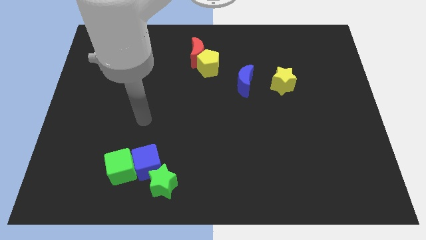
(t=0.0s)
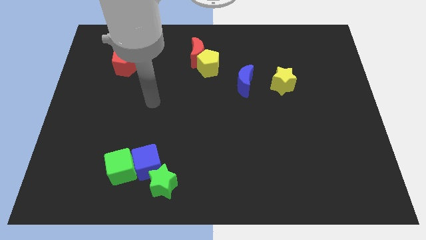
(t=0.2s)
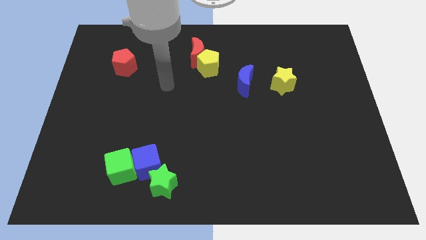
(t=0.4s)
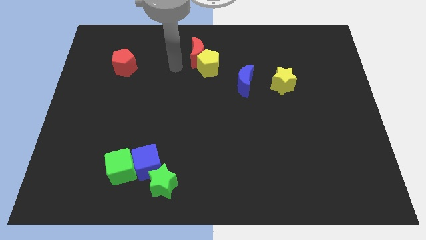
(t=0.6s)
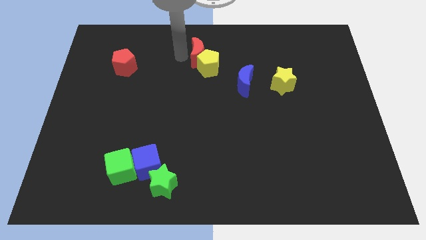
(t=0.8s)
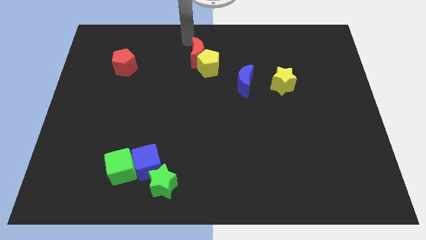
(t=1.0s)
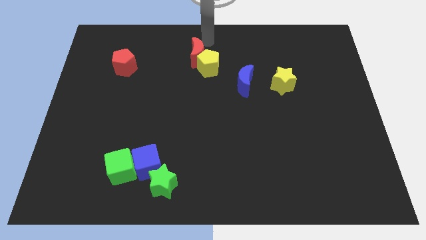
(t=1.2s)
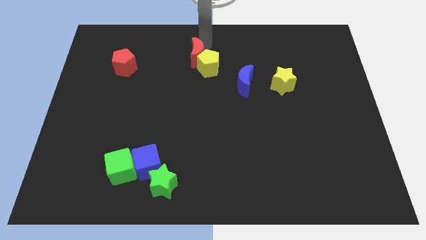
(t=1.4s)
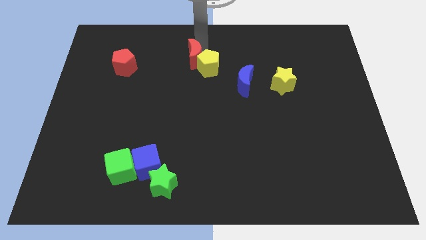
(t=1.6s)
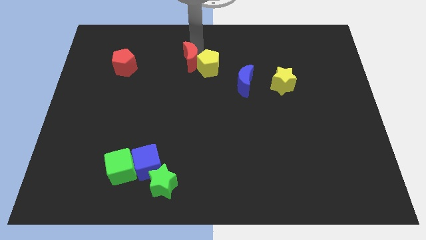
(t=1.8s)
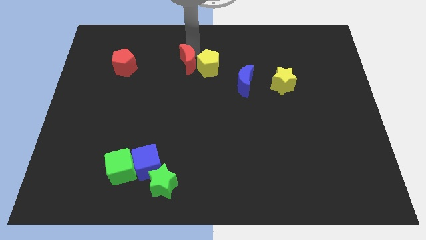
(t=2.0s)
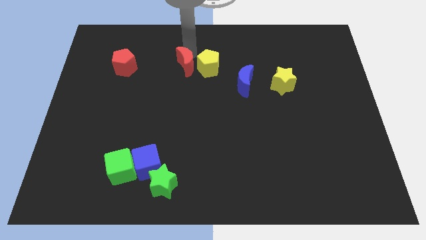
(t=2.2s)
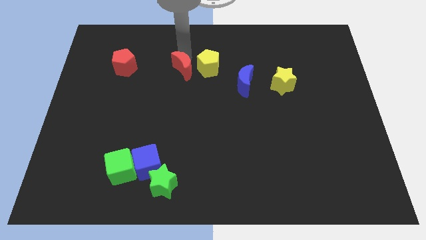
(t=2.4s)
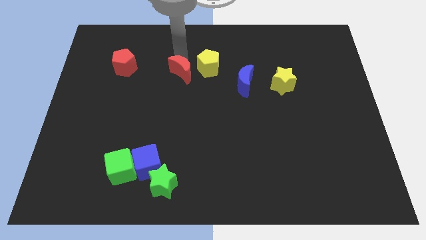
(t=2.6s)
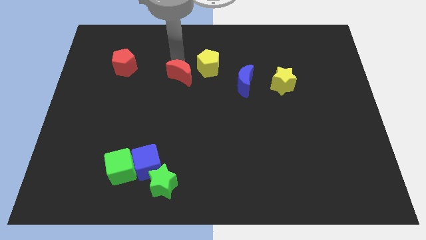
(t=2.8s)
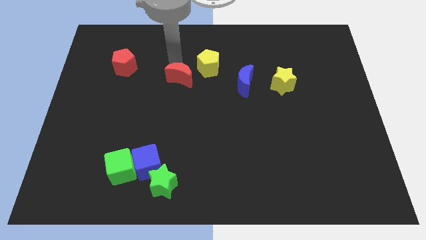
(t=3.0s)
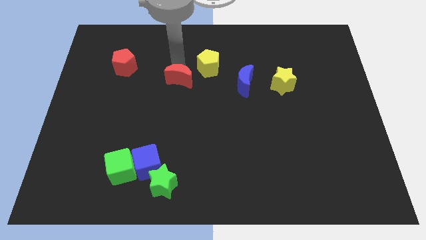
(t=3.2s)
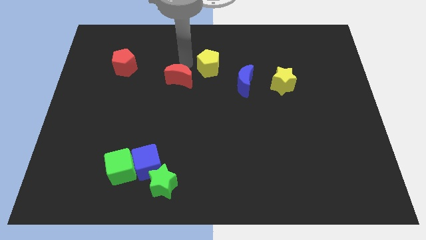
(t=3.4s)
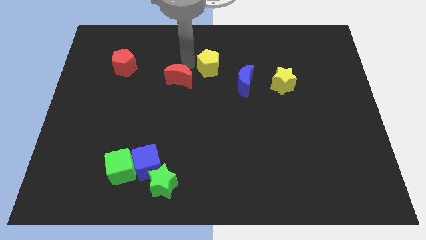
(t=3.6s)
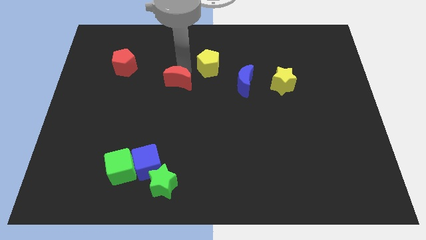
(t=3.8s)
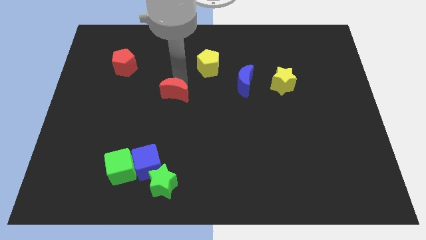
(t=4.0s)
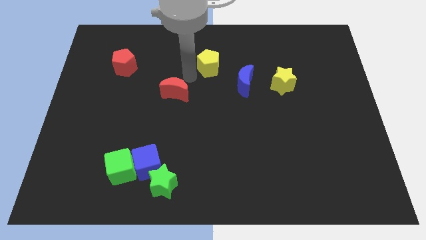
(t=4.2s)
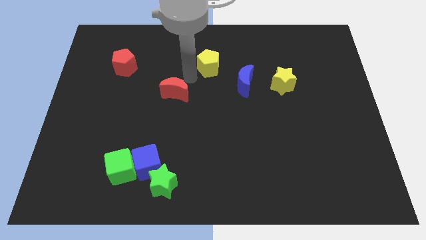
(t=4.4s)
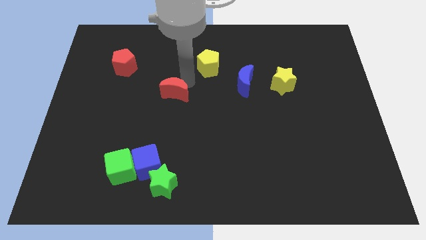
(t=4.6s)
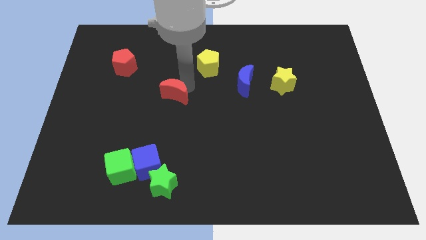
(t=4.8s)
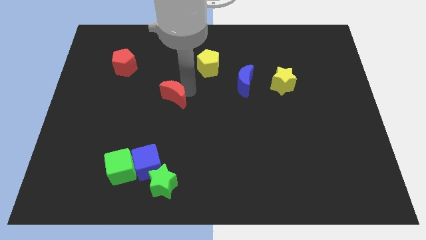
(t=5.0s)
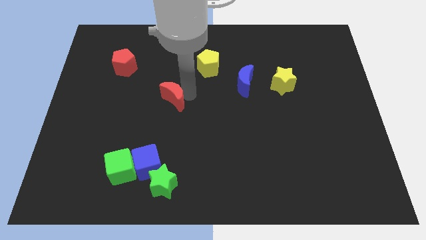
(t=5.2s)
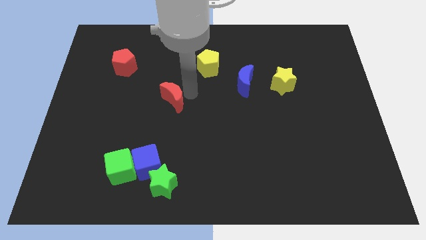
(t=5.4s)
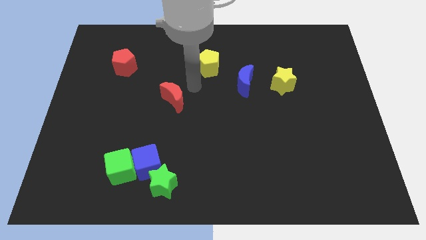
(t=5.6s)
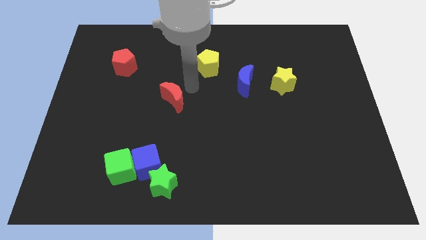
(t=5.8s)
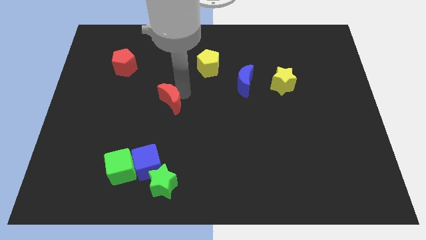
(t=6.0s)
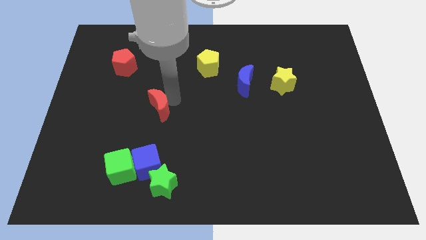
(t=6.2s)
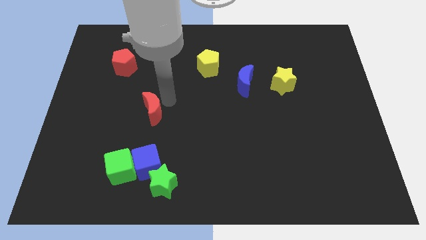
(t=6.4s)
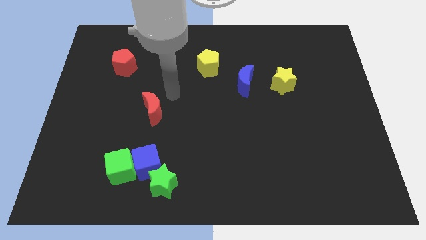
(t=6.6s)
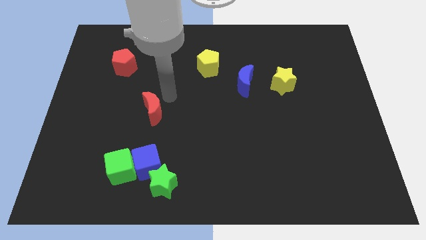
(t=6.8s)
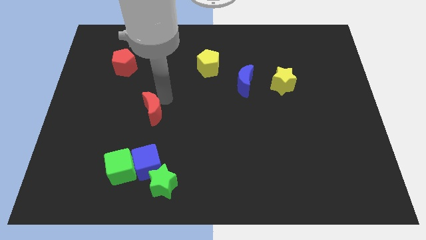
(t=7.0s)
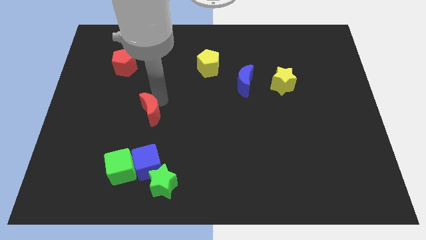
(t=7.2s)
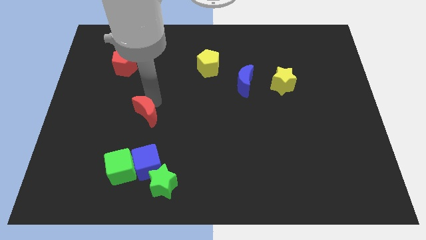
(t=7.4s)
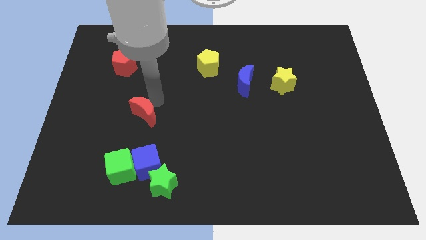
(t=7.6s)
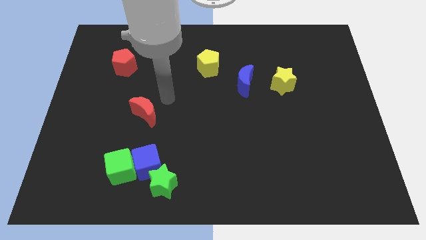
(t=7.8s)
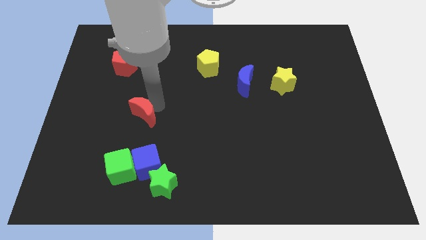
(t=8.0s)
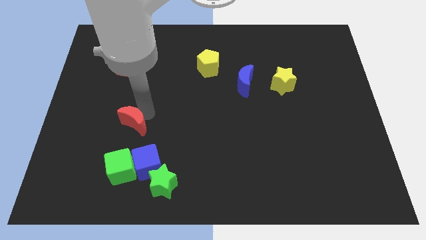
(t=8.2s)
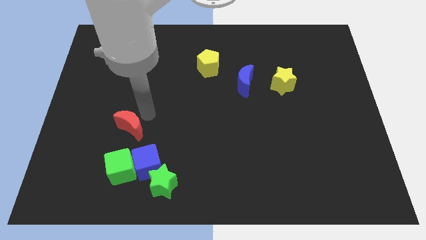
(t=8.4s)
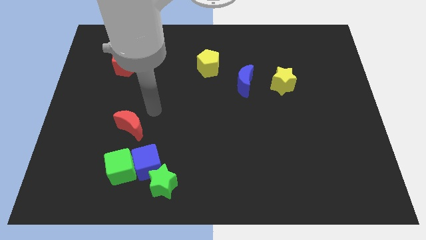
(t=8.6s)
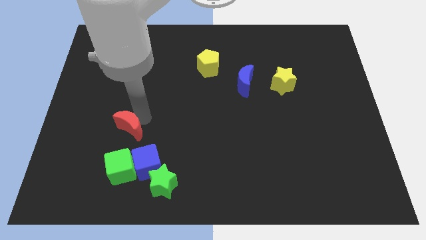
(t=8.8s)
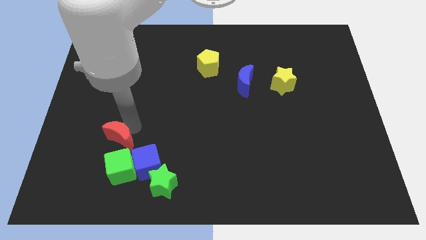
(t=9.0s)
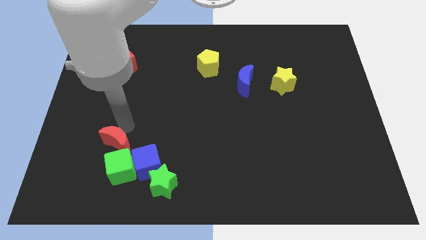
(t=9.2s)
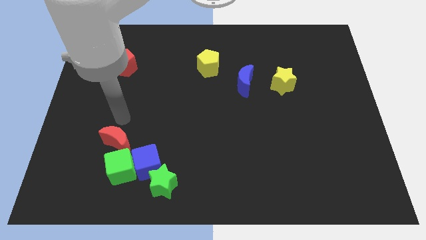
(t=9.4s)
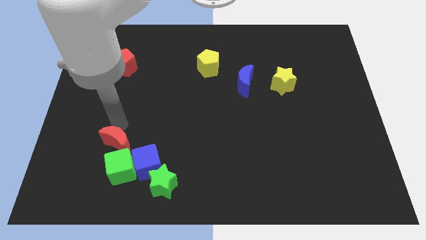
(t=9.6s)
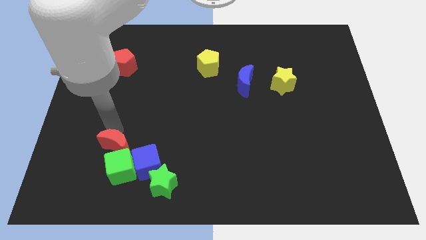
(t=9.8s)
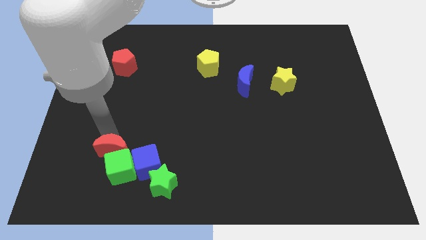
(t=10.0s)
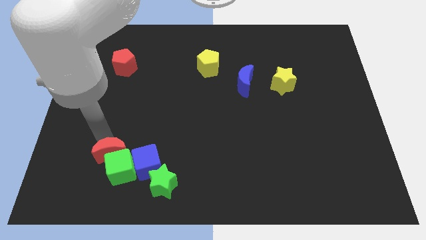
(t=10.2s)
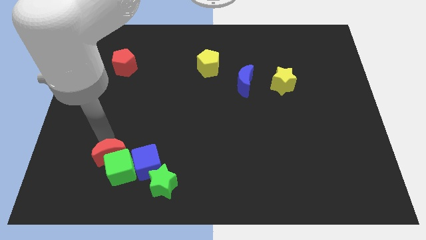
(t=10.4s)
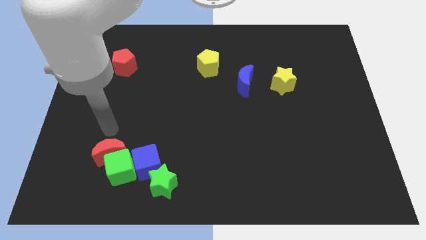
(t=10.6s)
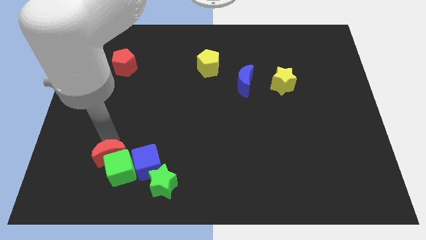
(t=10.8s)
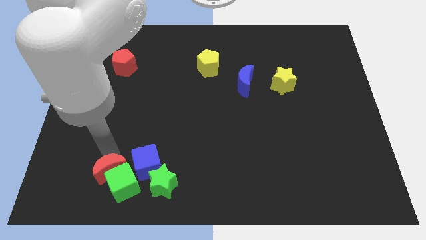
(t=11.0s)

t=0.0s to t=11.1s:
slide the red moon just left of the green star
